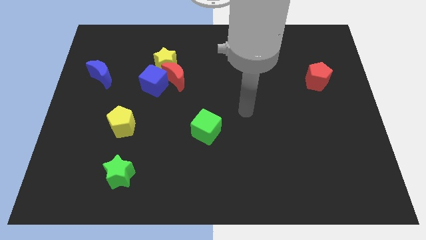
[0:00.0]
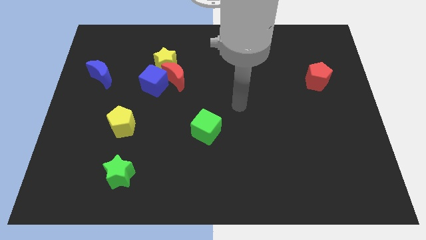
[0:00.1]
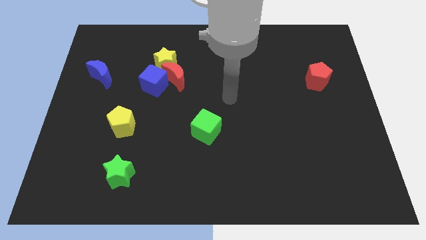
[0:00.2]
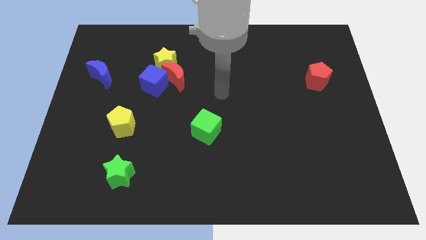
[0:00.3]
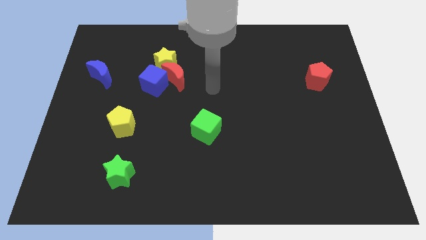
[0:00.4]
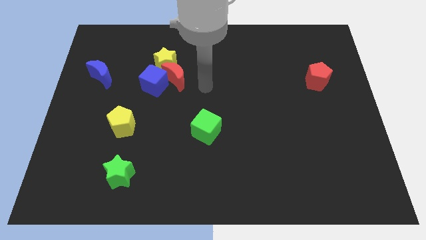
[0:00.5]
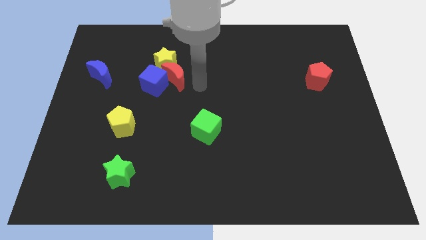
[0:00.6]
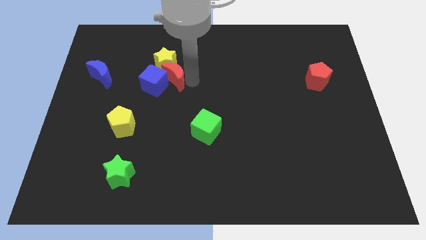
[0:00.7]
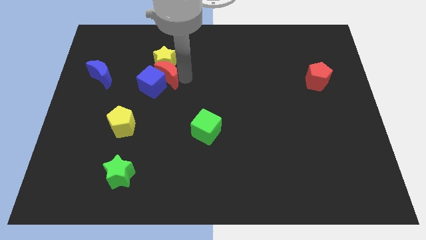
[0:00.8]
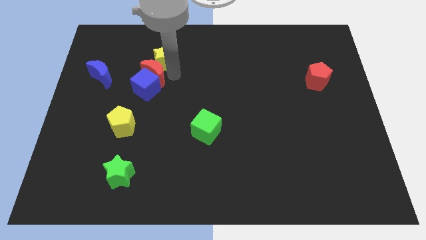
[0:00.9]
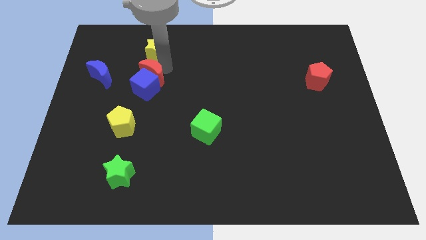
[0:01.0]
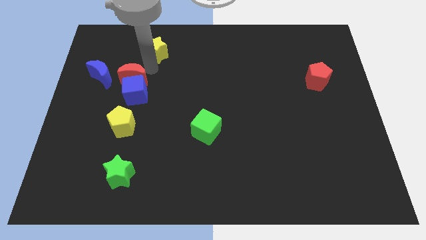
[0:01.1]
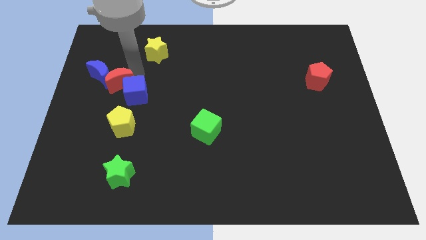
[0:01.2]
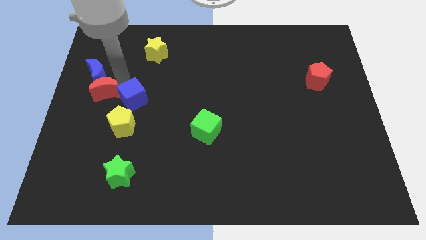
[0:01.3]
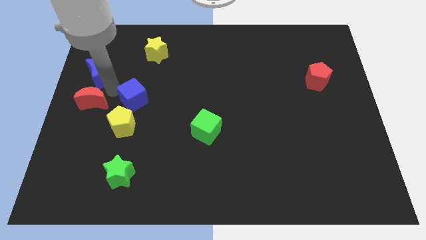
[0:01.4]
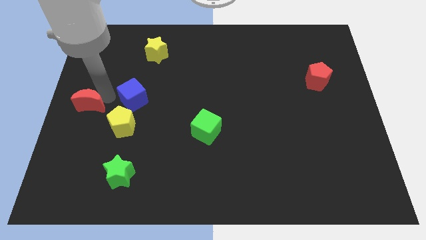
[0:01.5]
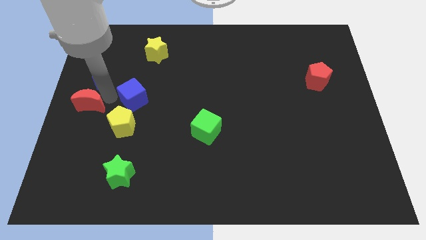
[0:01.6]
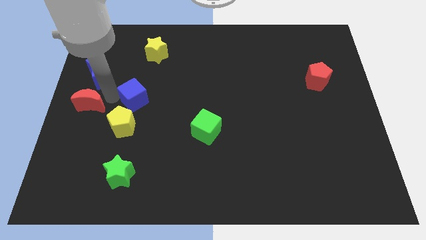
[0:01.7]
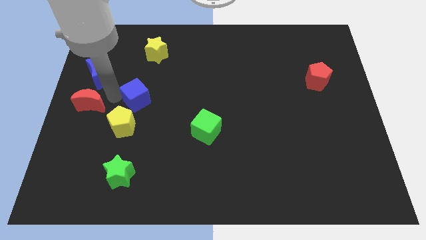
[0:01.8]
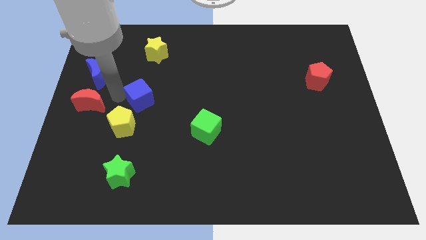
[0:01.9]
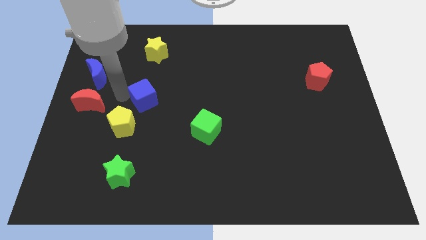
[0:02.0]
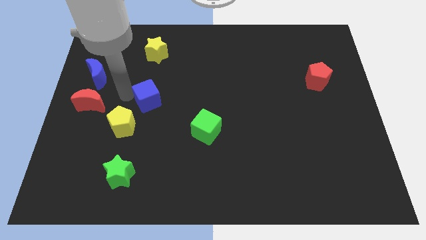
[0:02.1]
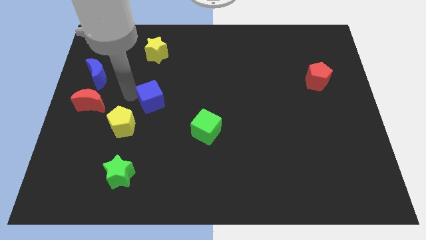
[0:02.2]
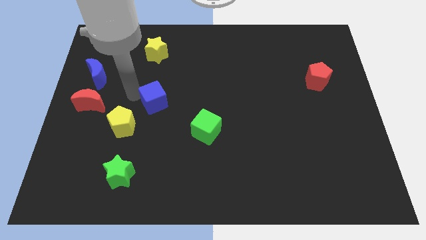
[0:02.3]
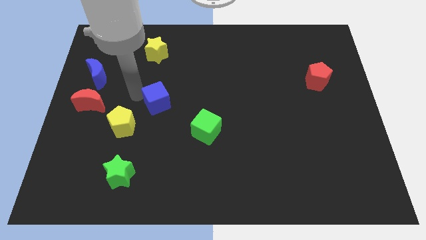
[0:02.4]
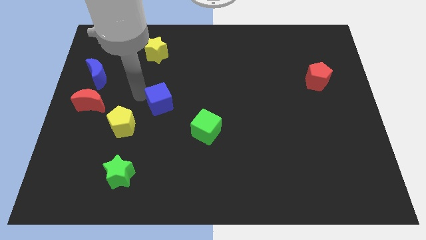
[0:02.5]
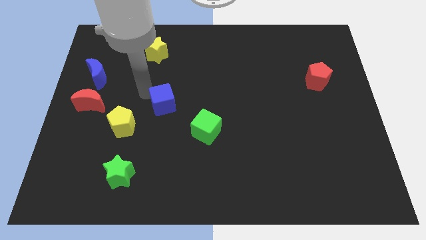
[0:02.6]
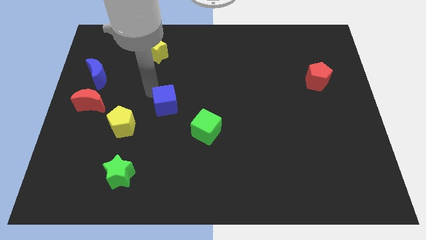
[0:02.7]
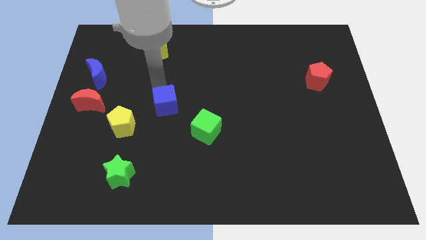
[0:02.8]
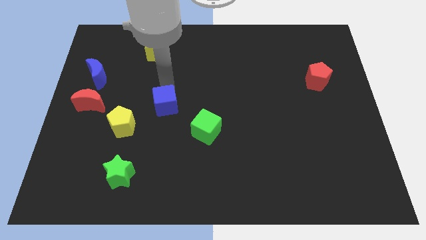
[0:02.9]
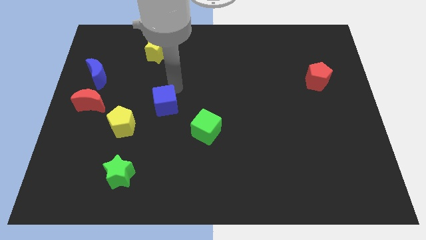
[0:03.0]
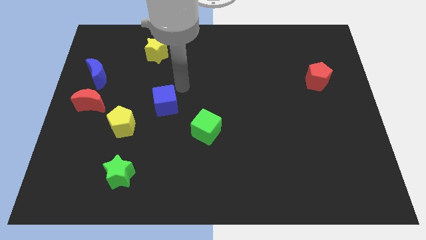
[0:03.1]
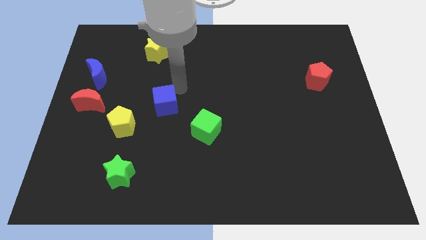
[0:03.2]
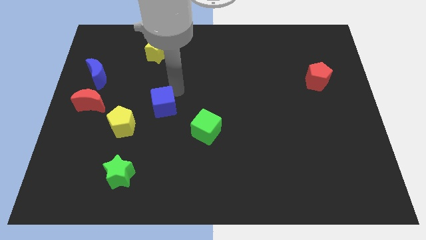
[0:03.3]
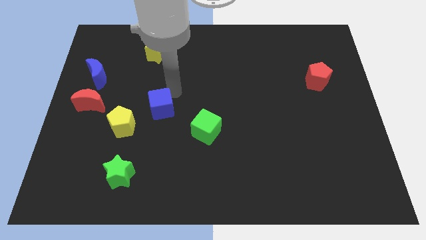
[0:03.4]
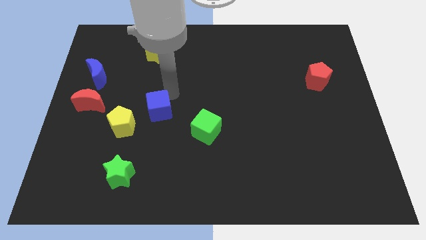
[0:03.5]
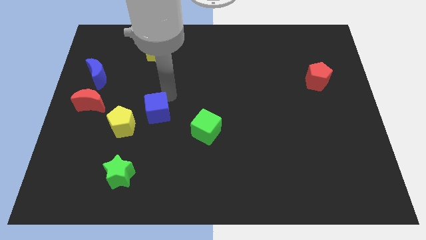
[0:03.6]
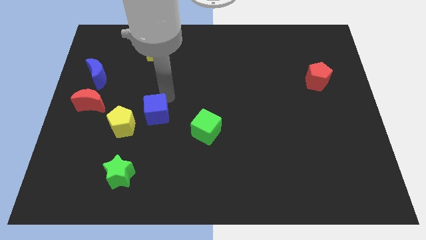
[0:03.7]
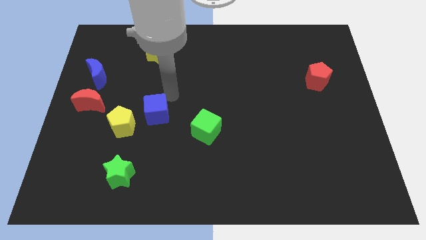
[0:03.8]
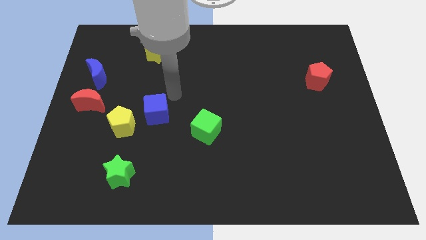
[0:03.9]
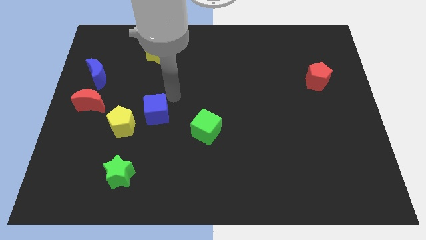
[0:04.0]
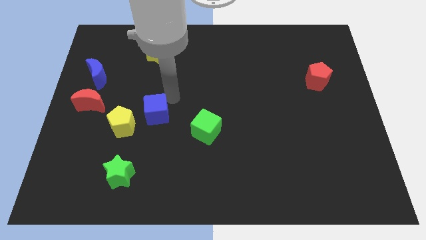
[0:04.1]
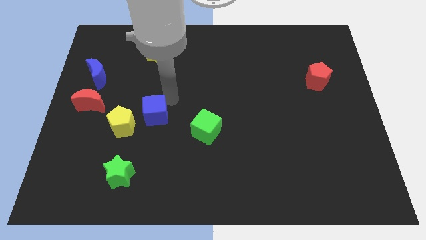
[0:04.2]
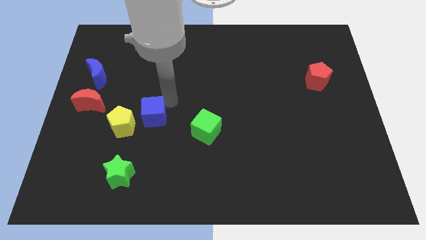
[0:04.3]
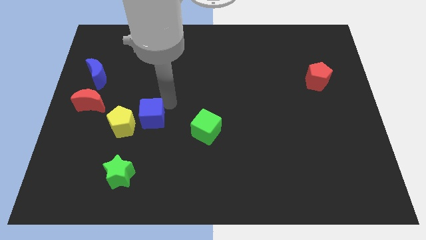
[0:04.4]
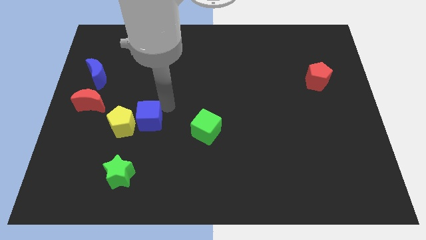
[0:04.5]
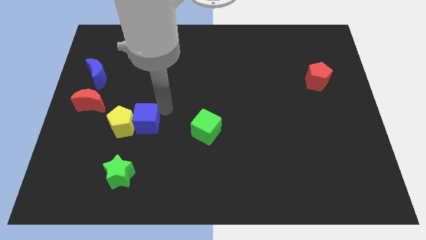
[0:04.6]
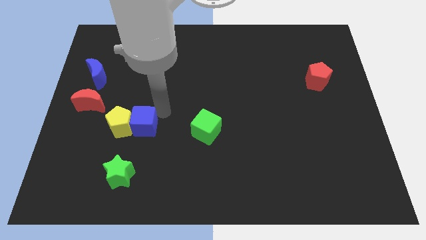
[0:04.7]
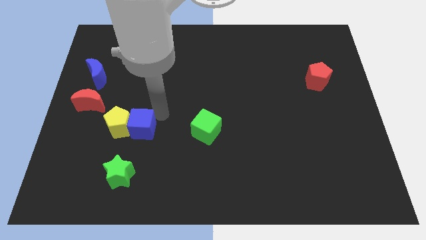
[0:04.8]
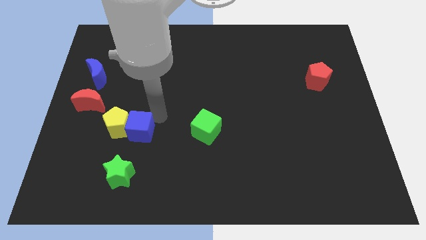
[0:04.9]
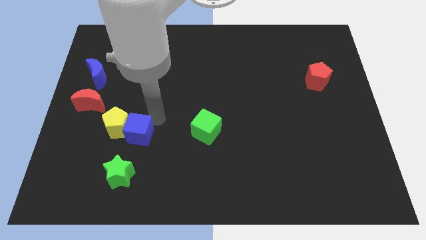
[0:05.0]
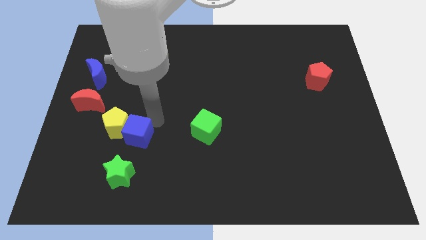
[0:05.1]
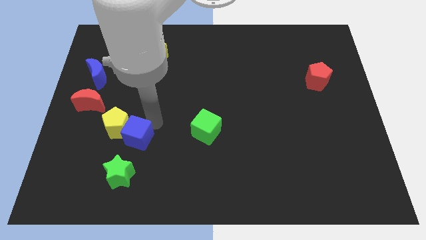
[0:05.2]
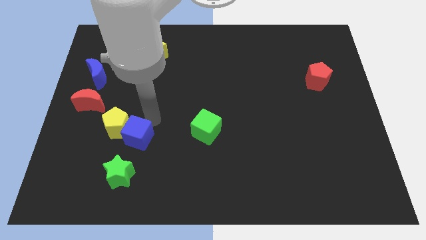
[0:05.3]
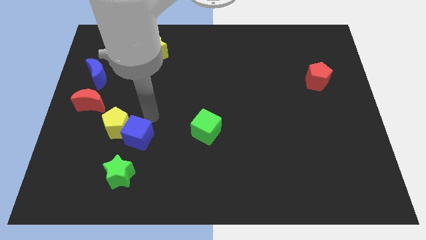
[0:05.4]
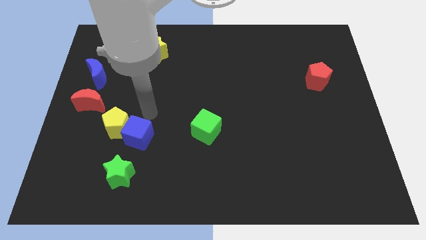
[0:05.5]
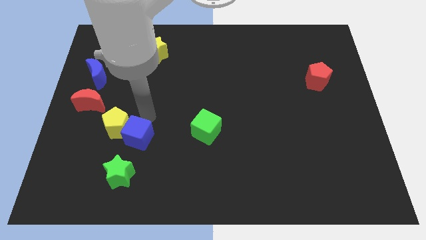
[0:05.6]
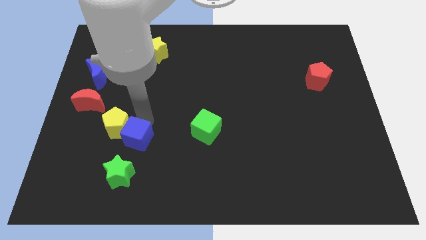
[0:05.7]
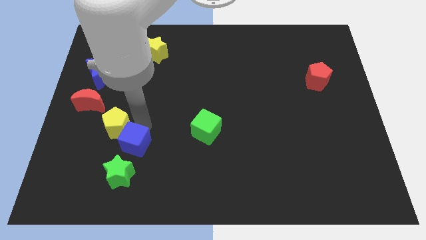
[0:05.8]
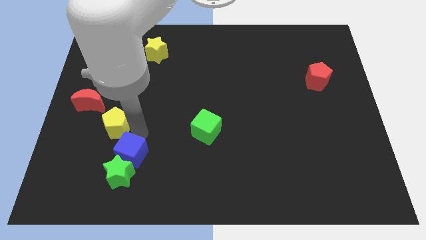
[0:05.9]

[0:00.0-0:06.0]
push the blue cube next to the green star

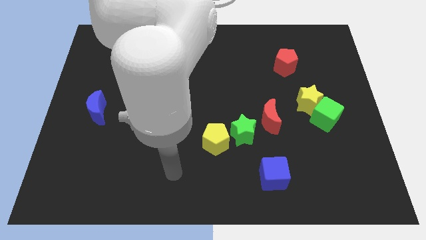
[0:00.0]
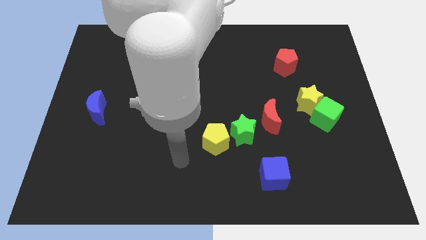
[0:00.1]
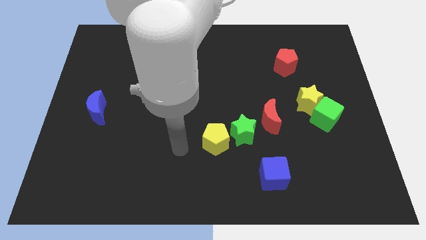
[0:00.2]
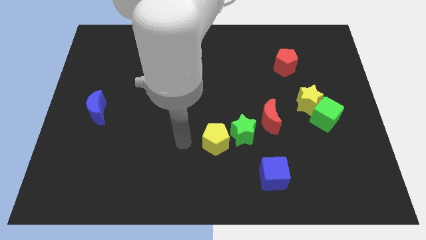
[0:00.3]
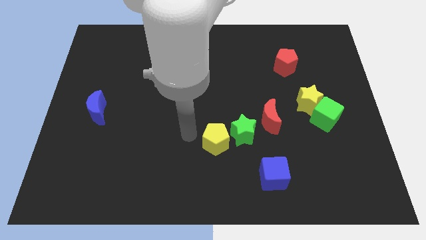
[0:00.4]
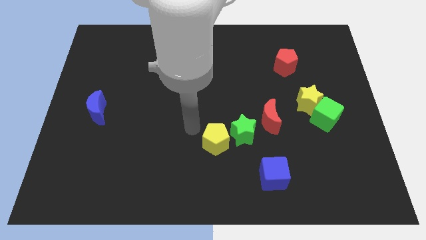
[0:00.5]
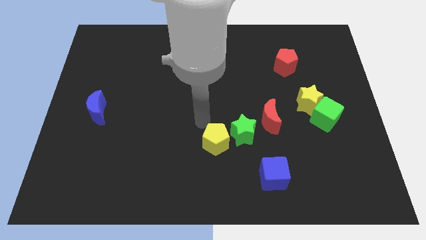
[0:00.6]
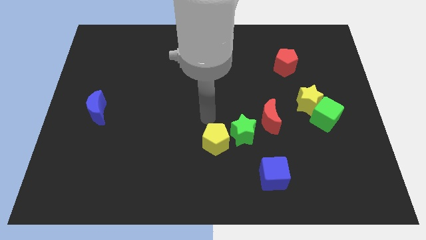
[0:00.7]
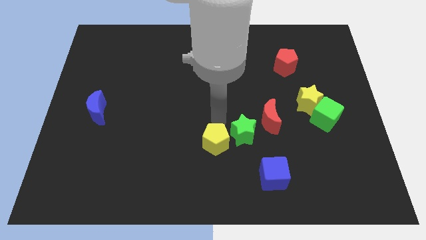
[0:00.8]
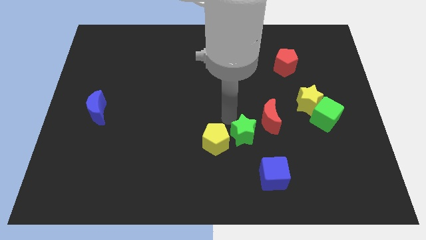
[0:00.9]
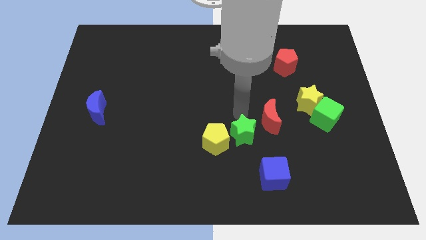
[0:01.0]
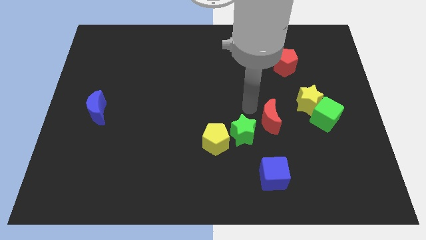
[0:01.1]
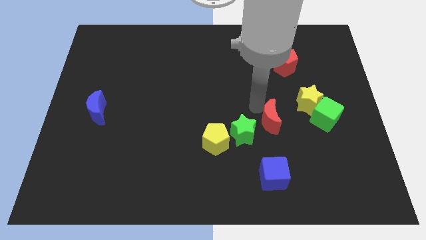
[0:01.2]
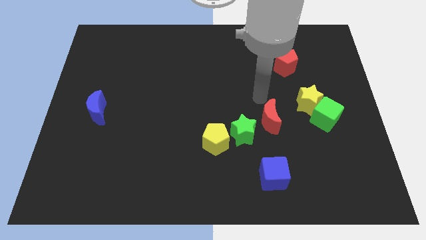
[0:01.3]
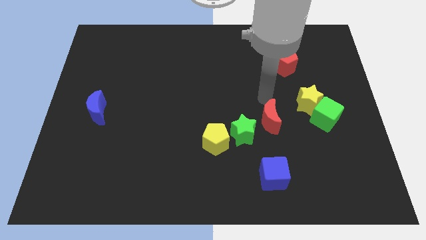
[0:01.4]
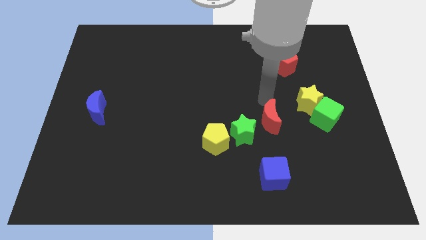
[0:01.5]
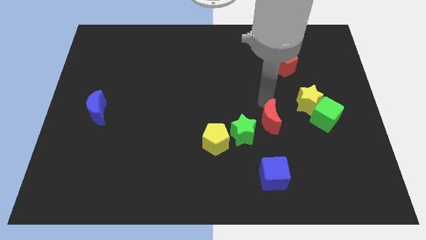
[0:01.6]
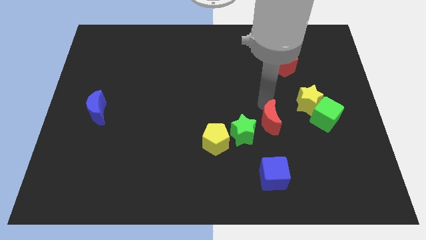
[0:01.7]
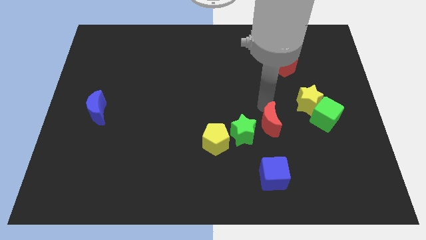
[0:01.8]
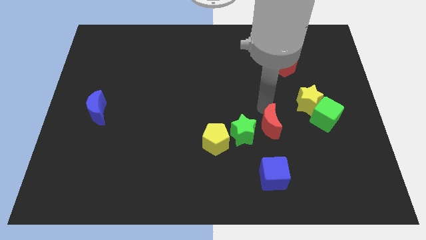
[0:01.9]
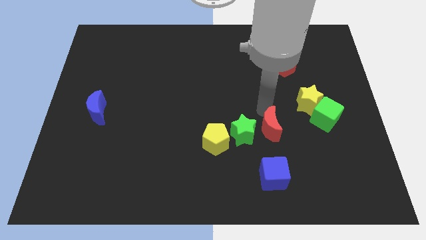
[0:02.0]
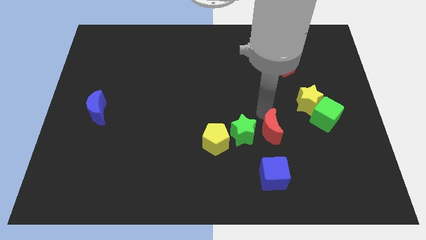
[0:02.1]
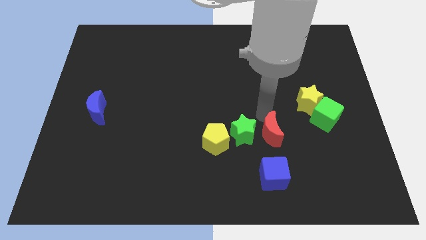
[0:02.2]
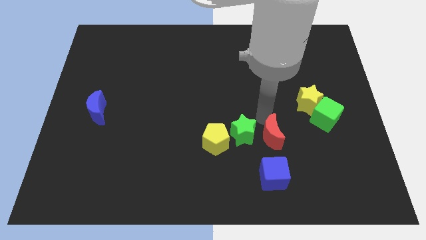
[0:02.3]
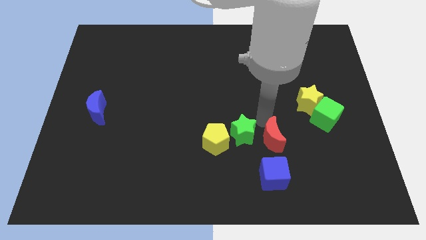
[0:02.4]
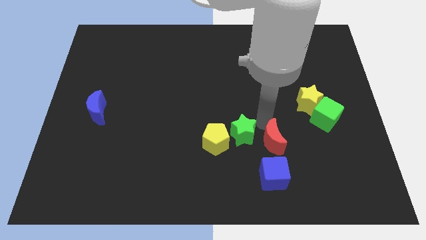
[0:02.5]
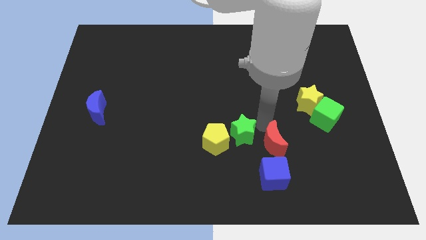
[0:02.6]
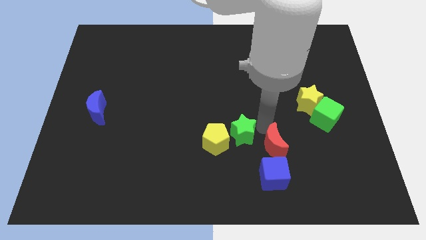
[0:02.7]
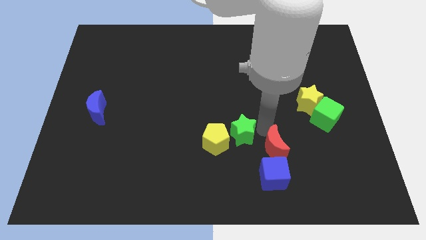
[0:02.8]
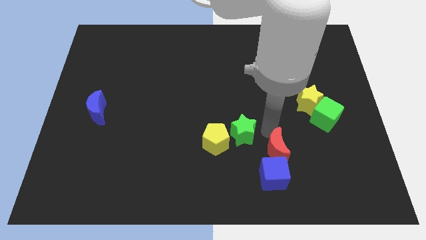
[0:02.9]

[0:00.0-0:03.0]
put the red moon close to the blue cube
